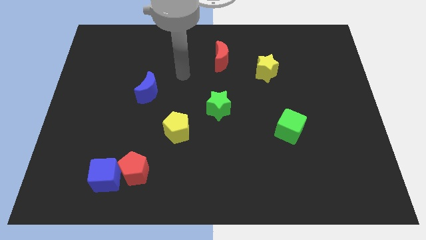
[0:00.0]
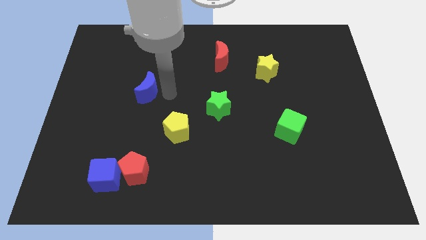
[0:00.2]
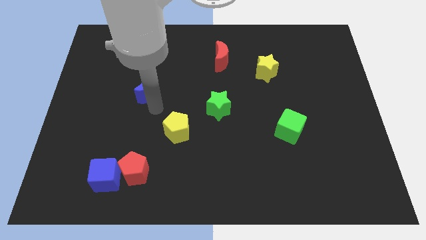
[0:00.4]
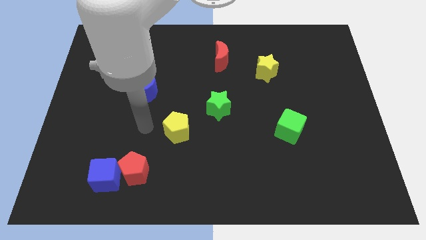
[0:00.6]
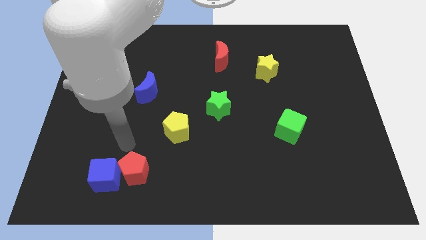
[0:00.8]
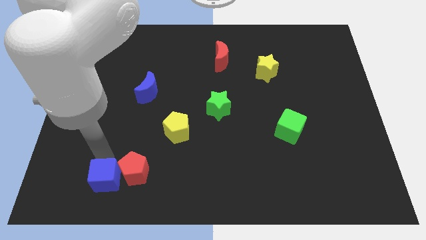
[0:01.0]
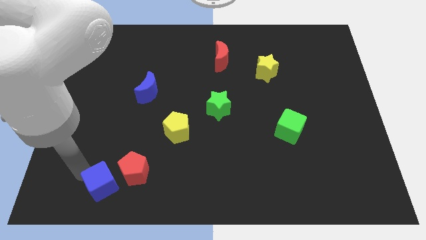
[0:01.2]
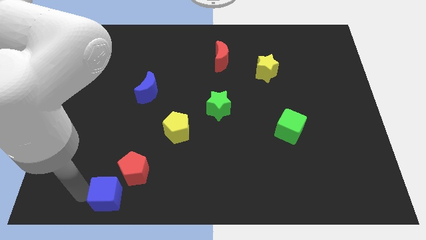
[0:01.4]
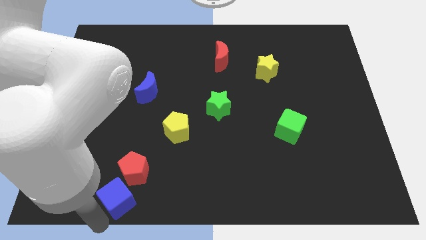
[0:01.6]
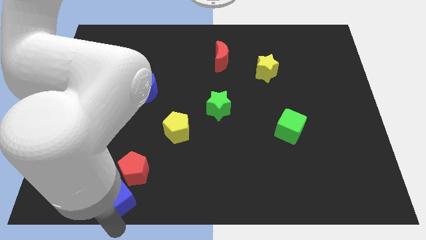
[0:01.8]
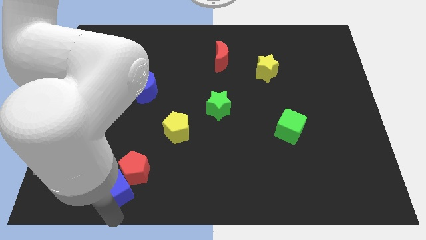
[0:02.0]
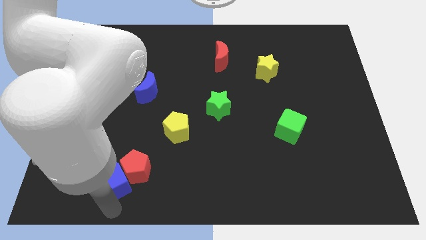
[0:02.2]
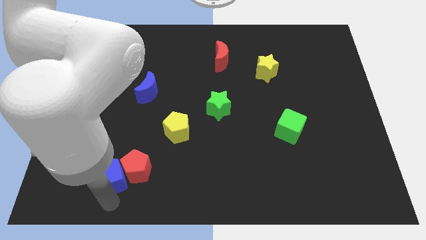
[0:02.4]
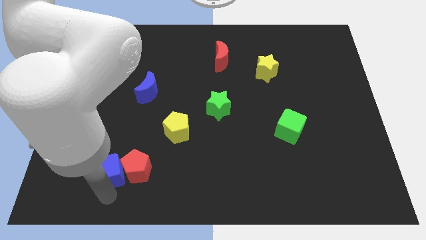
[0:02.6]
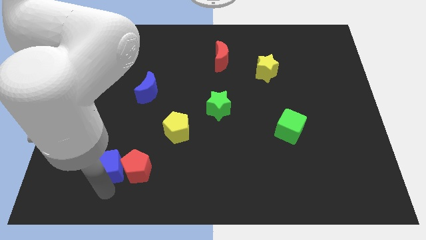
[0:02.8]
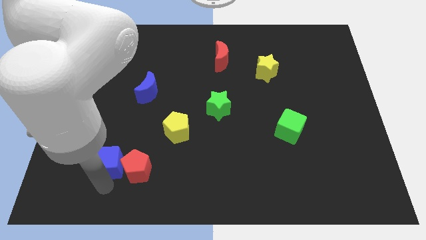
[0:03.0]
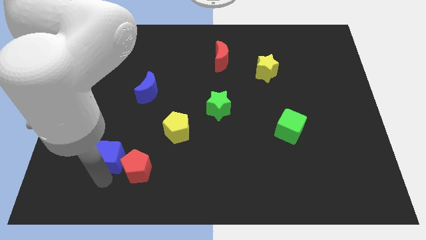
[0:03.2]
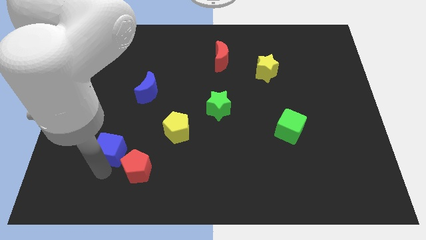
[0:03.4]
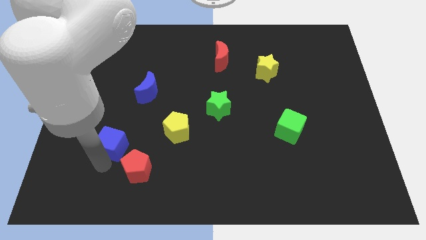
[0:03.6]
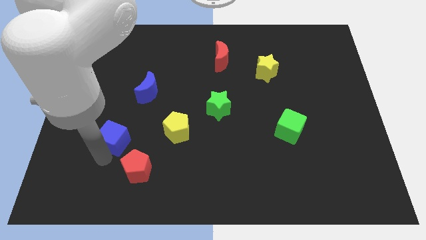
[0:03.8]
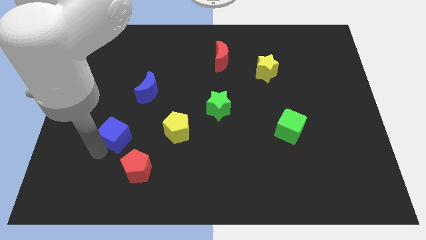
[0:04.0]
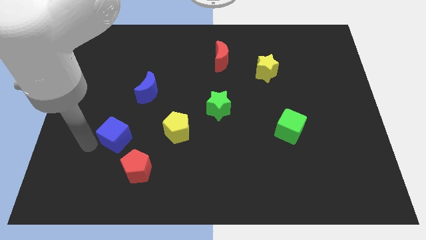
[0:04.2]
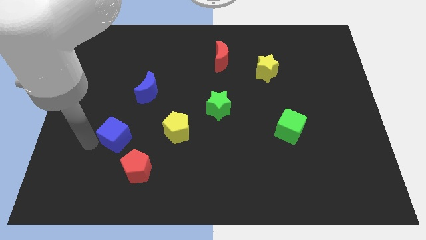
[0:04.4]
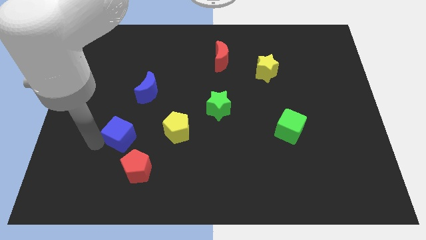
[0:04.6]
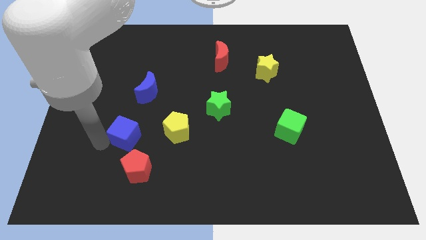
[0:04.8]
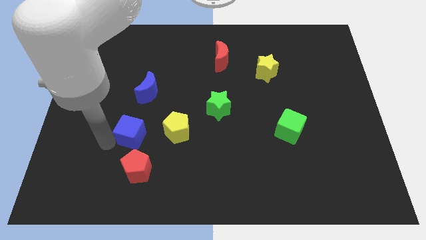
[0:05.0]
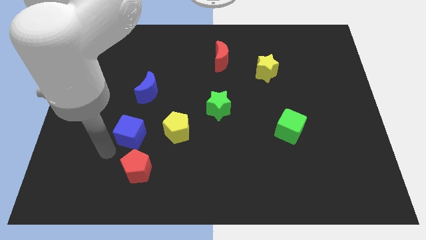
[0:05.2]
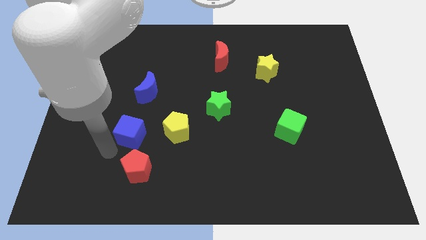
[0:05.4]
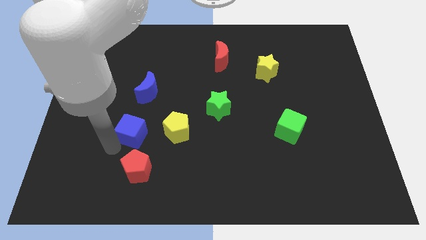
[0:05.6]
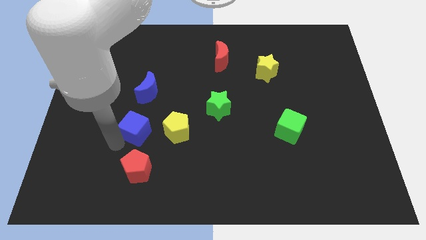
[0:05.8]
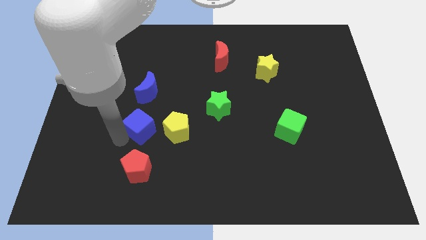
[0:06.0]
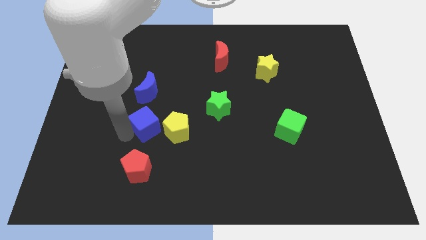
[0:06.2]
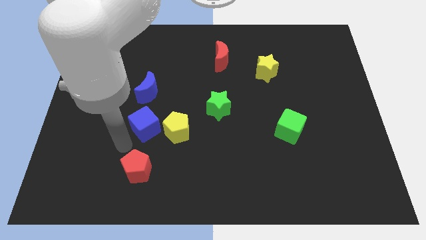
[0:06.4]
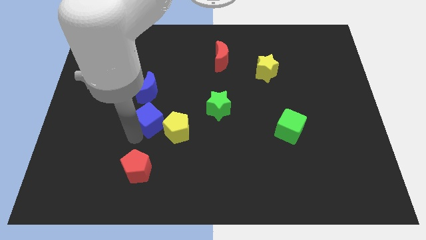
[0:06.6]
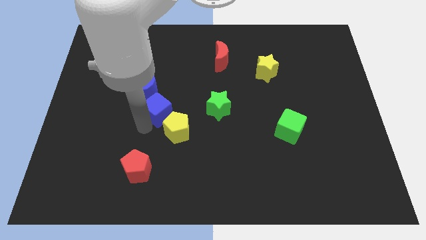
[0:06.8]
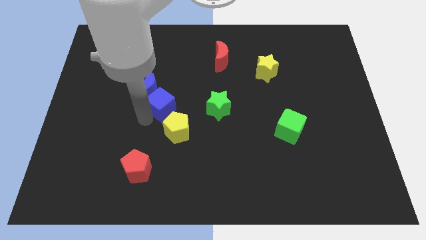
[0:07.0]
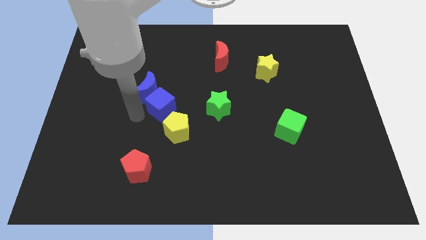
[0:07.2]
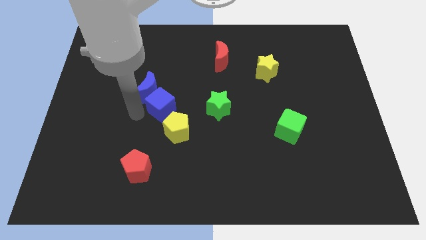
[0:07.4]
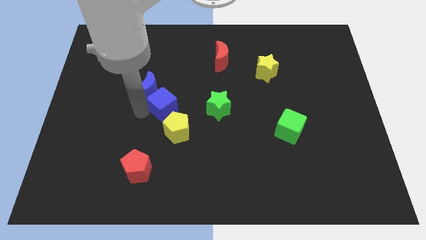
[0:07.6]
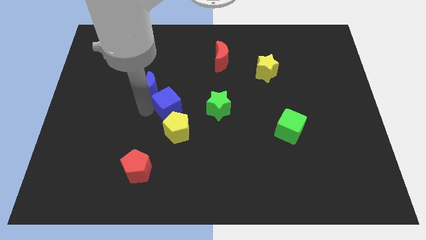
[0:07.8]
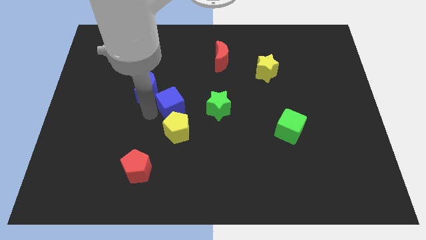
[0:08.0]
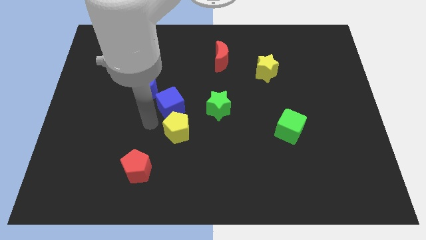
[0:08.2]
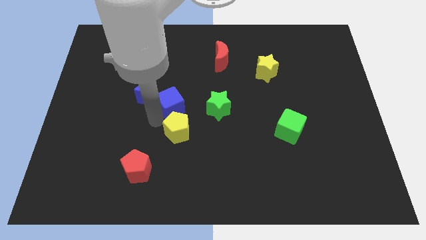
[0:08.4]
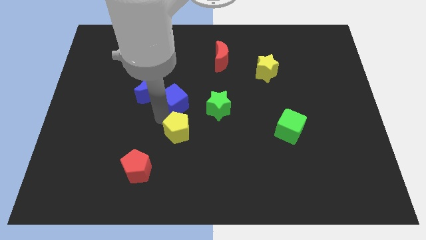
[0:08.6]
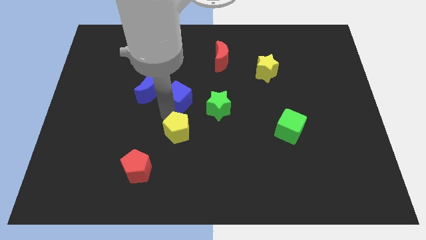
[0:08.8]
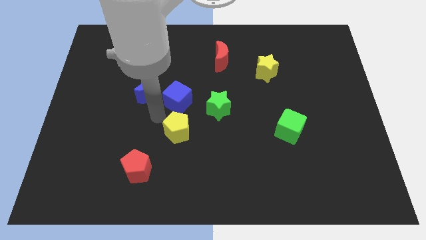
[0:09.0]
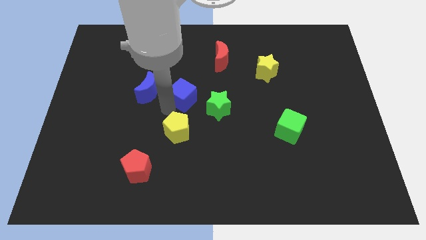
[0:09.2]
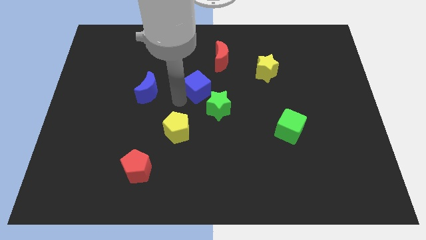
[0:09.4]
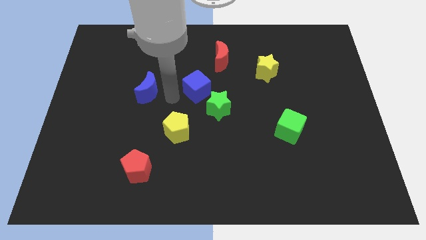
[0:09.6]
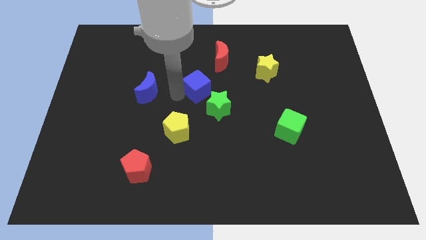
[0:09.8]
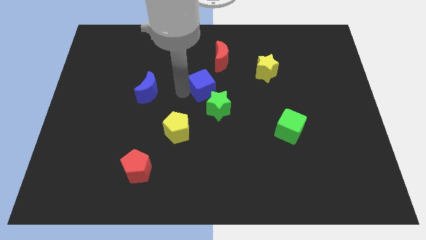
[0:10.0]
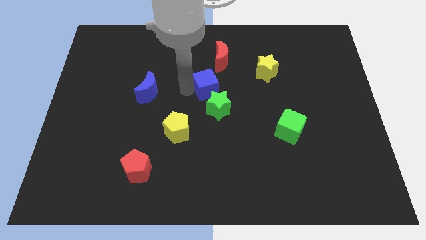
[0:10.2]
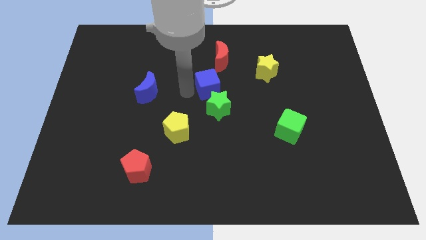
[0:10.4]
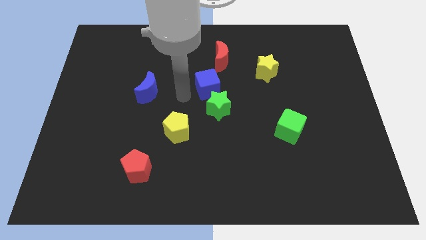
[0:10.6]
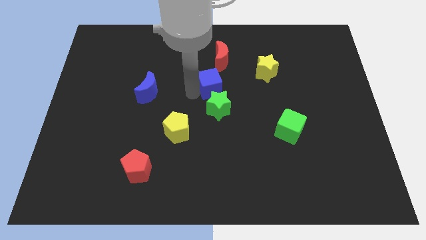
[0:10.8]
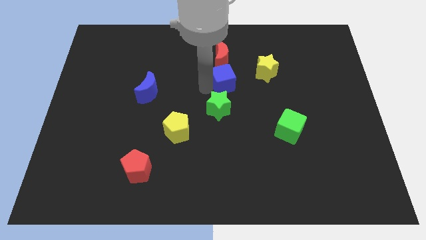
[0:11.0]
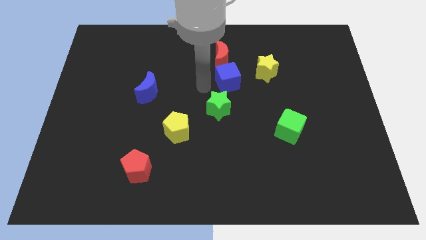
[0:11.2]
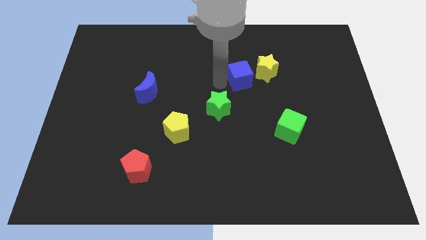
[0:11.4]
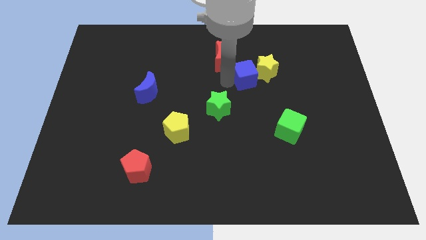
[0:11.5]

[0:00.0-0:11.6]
slide the blue cube close to the yellow star

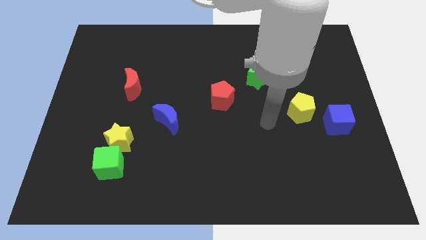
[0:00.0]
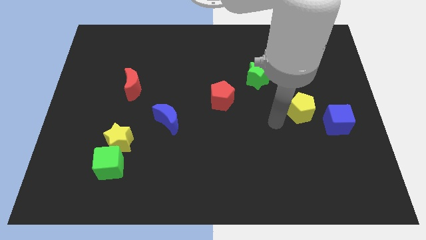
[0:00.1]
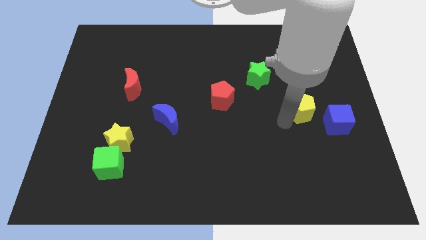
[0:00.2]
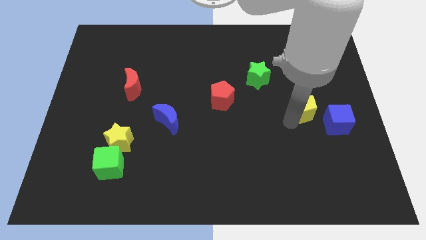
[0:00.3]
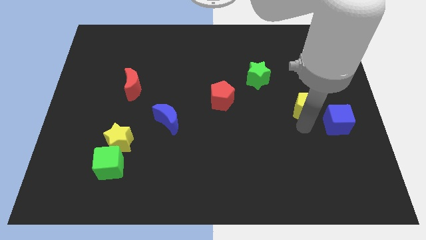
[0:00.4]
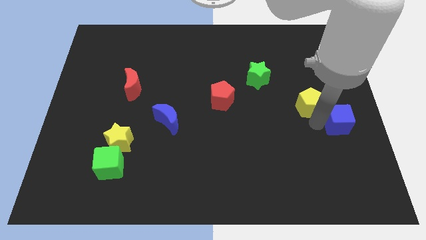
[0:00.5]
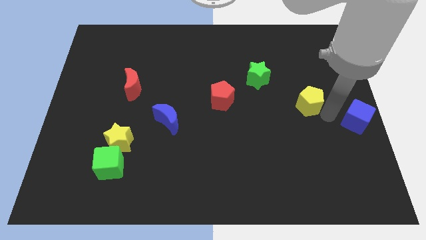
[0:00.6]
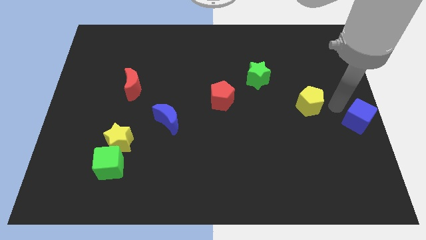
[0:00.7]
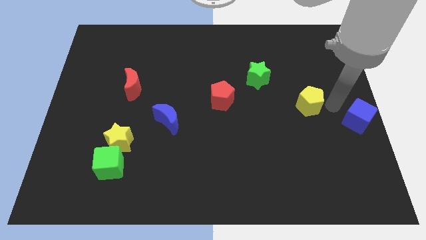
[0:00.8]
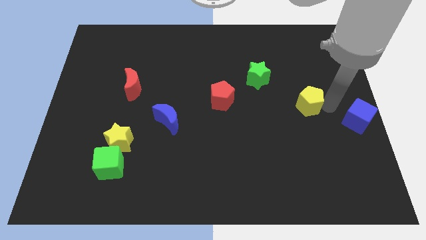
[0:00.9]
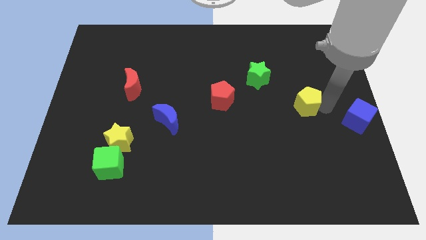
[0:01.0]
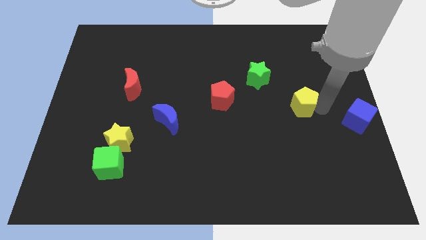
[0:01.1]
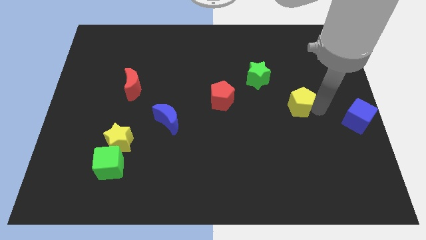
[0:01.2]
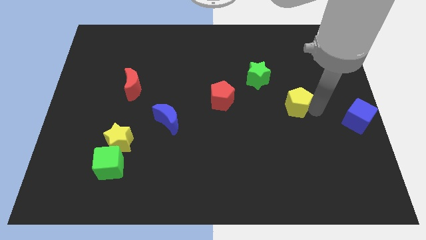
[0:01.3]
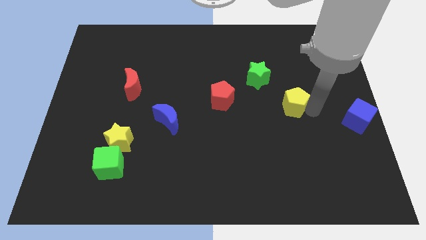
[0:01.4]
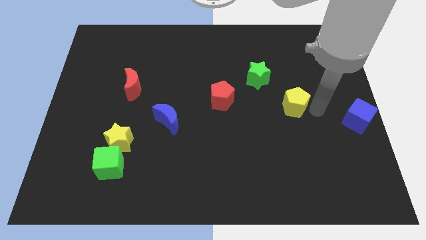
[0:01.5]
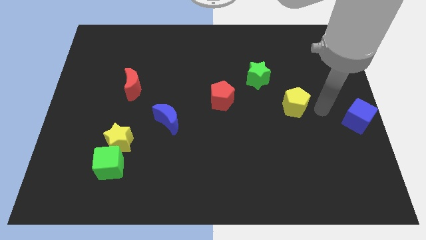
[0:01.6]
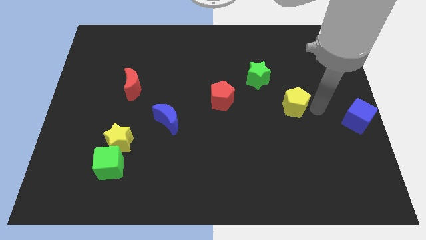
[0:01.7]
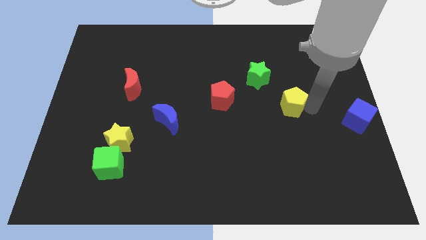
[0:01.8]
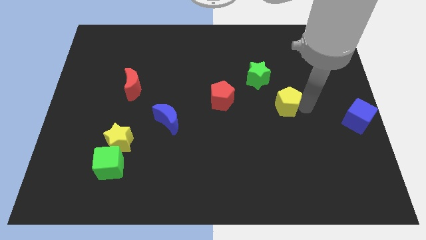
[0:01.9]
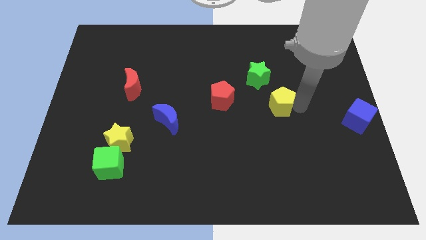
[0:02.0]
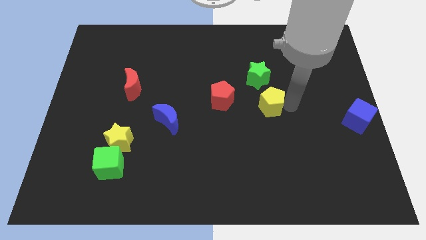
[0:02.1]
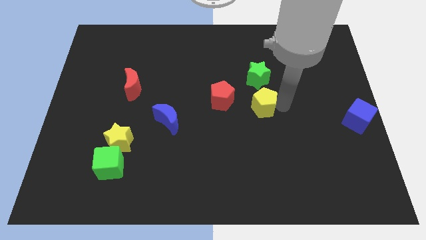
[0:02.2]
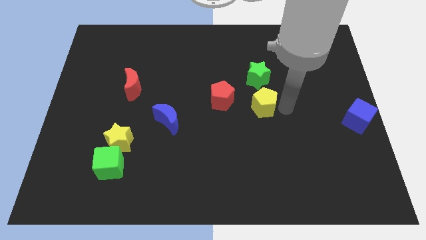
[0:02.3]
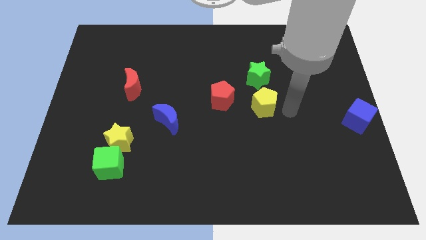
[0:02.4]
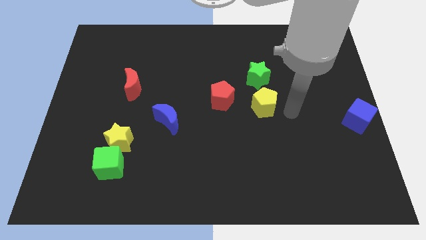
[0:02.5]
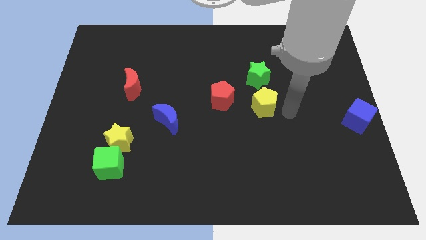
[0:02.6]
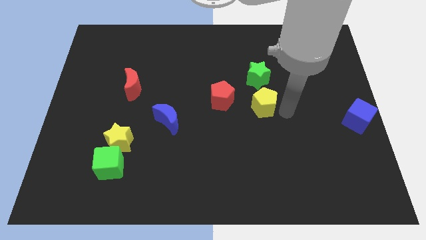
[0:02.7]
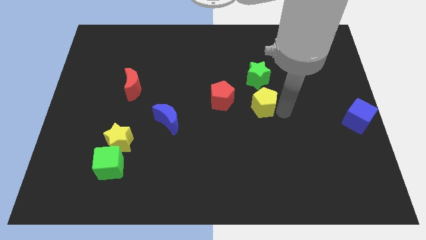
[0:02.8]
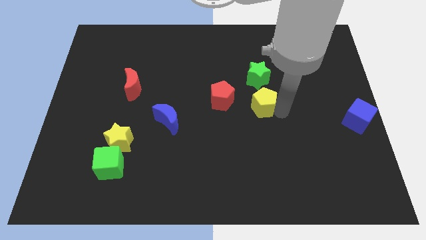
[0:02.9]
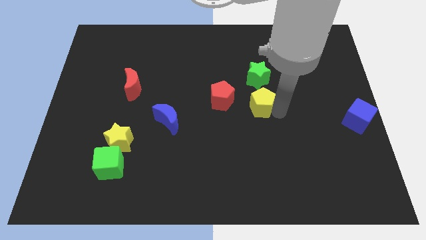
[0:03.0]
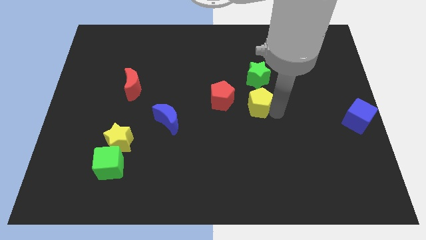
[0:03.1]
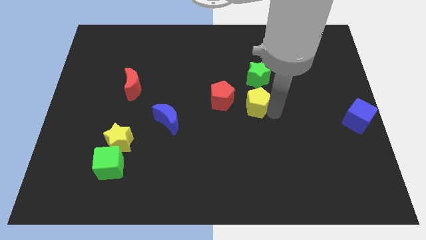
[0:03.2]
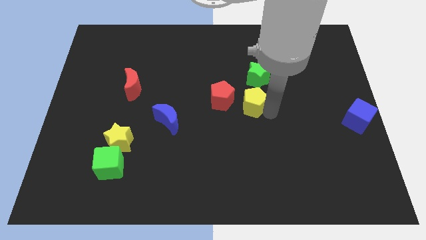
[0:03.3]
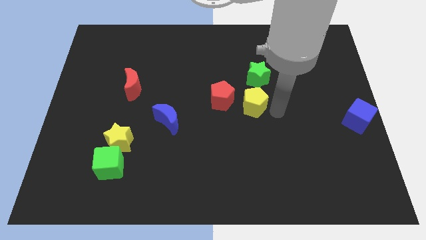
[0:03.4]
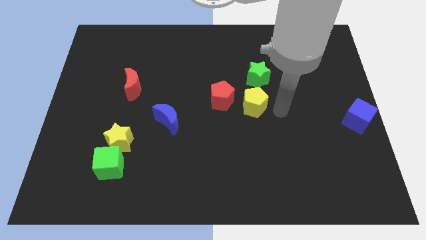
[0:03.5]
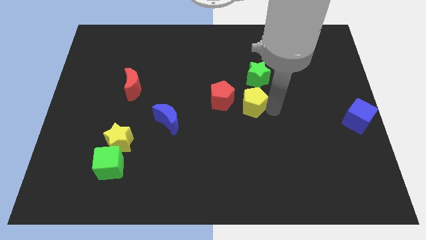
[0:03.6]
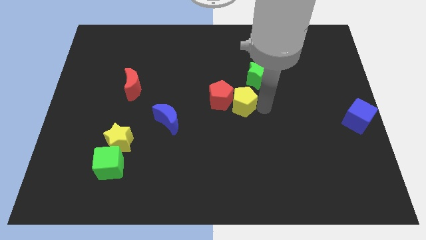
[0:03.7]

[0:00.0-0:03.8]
push the yellow pentagon towards the red pentagon
